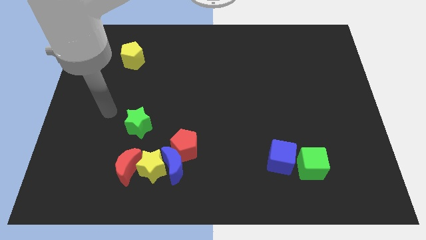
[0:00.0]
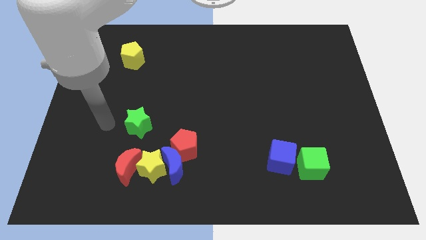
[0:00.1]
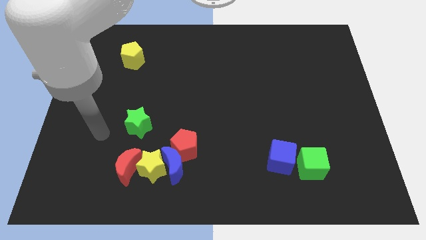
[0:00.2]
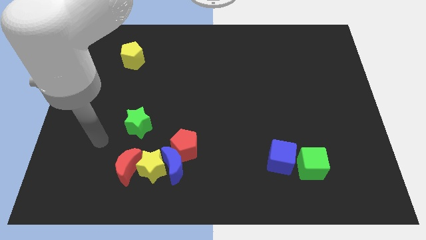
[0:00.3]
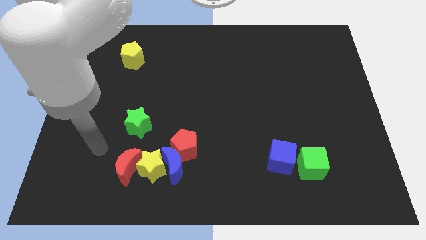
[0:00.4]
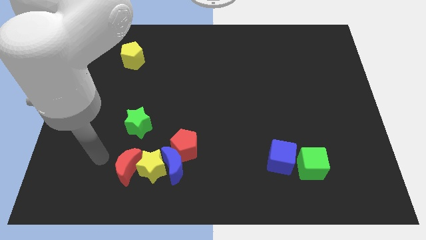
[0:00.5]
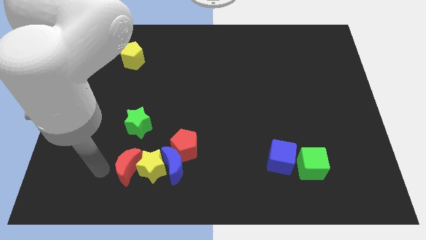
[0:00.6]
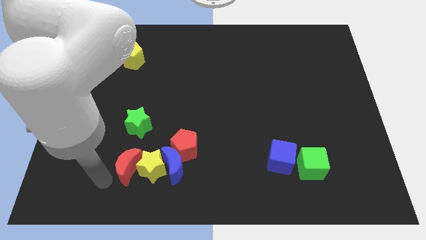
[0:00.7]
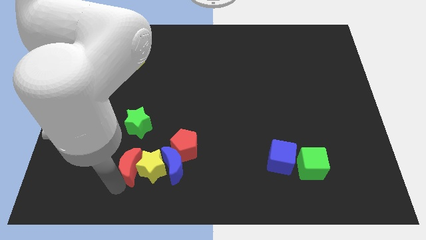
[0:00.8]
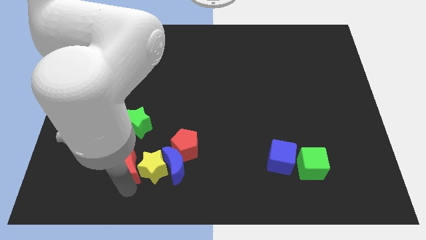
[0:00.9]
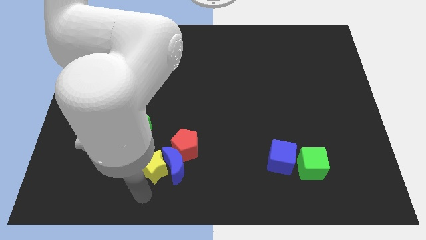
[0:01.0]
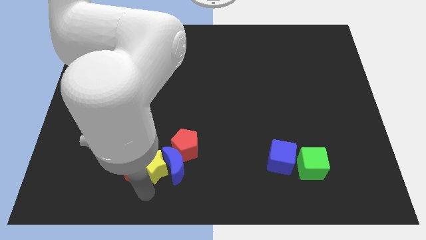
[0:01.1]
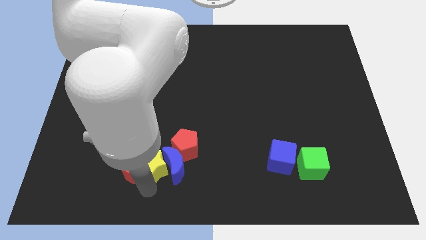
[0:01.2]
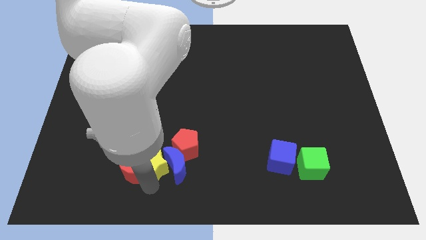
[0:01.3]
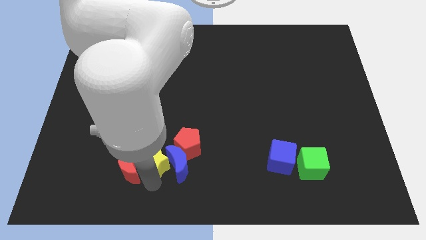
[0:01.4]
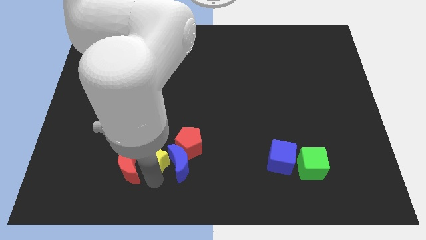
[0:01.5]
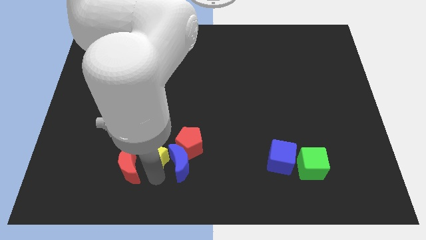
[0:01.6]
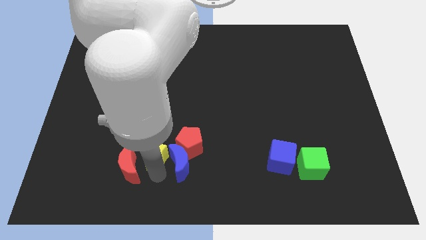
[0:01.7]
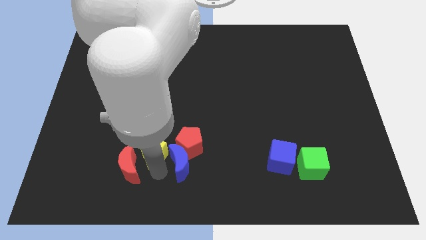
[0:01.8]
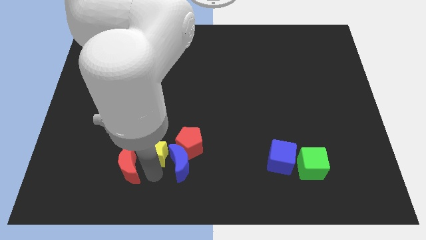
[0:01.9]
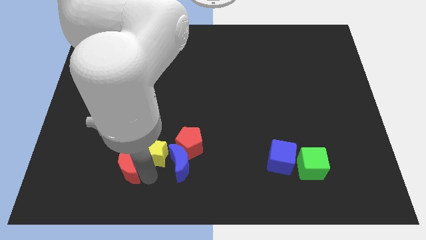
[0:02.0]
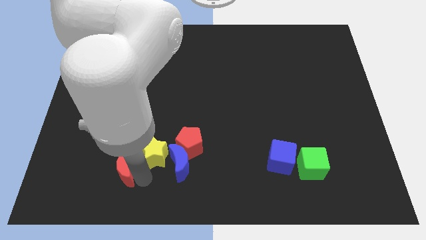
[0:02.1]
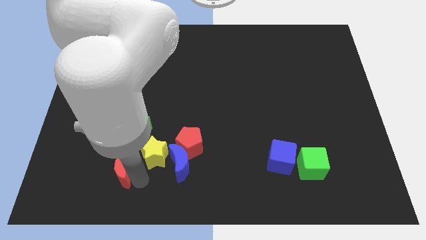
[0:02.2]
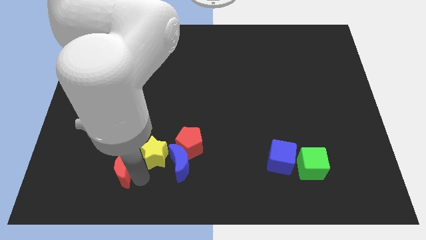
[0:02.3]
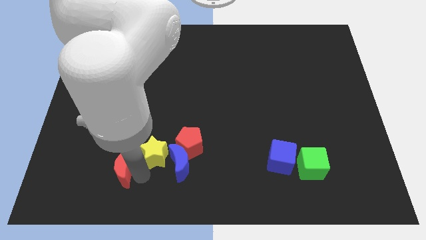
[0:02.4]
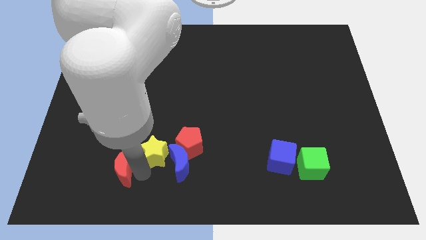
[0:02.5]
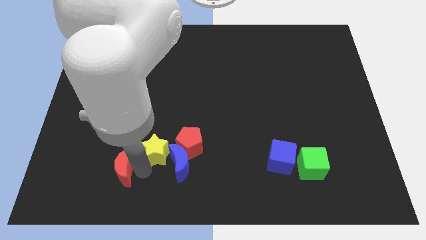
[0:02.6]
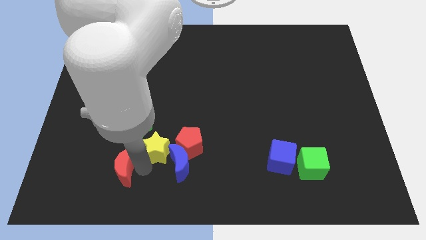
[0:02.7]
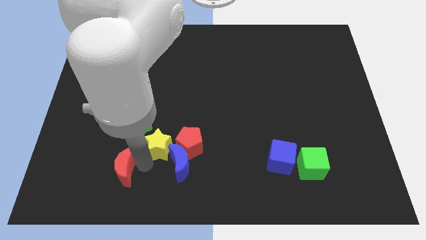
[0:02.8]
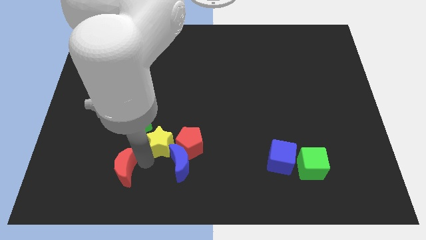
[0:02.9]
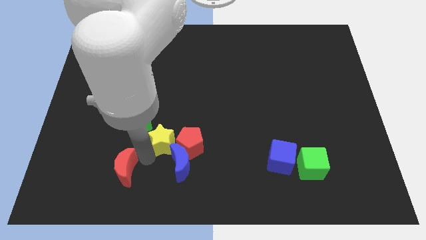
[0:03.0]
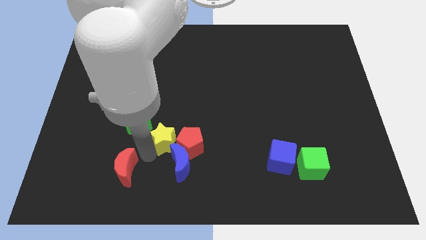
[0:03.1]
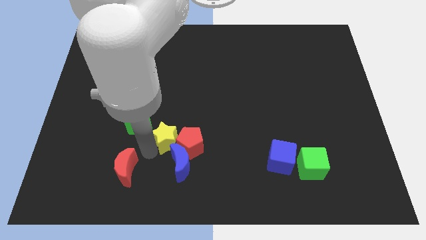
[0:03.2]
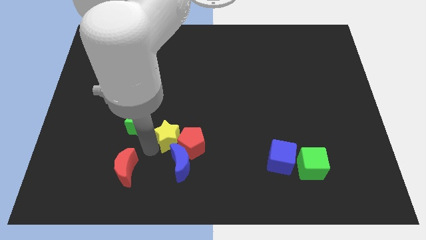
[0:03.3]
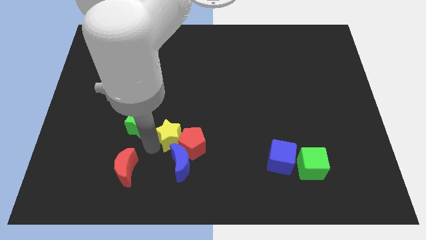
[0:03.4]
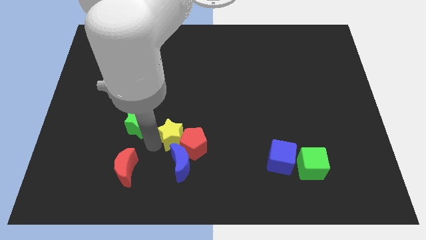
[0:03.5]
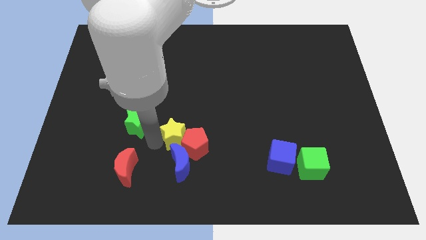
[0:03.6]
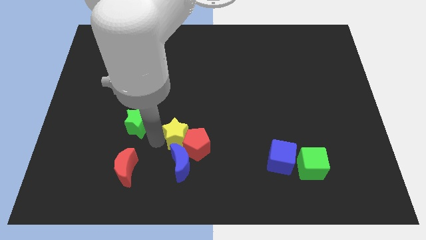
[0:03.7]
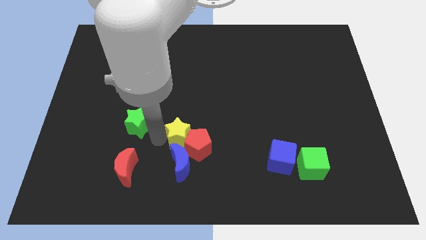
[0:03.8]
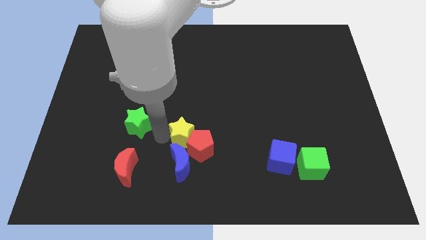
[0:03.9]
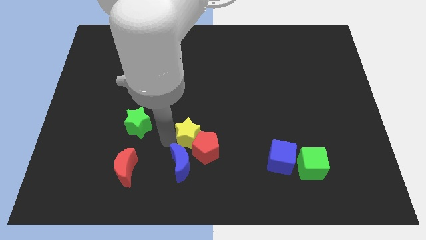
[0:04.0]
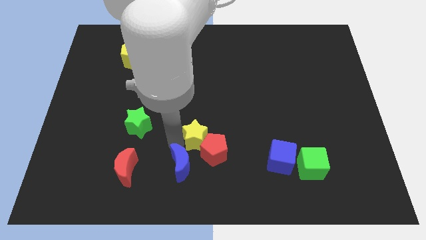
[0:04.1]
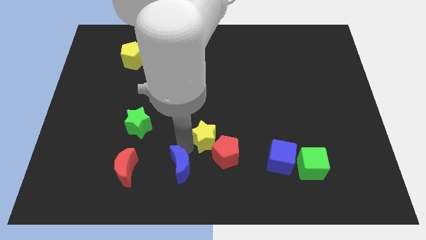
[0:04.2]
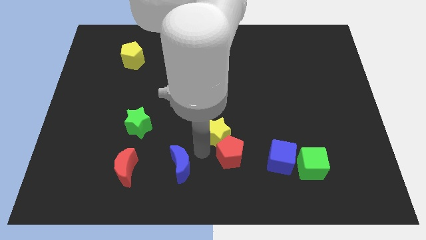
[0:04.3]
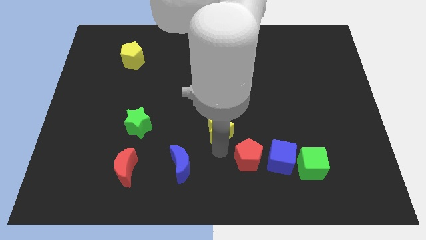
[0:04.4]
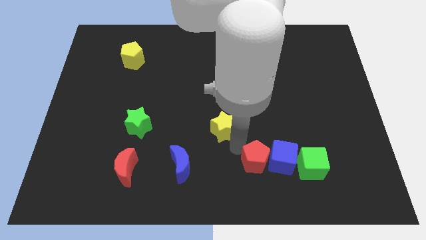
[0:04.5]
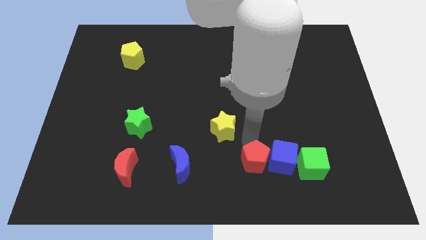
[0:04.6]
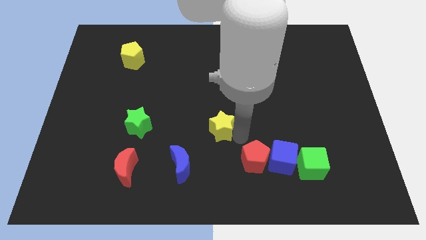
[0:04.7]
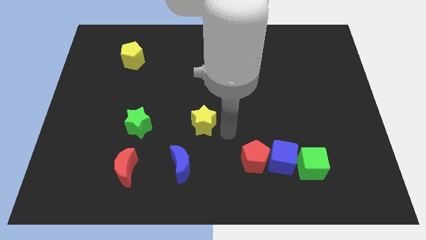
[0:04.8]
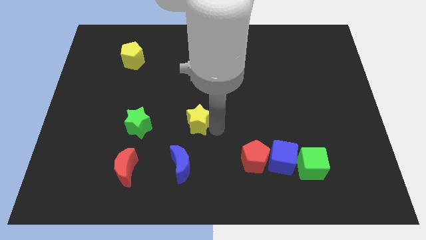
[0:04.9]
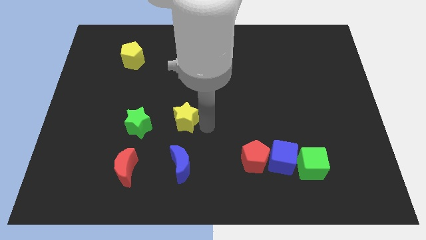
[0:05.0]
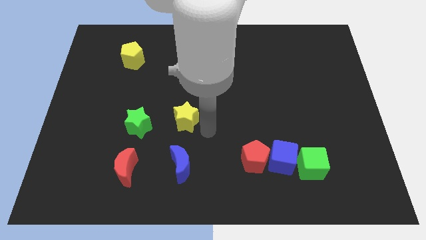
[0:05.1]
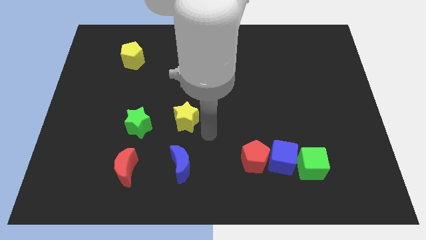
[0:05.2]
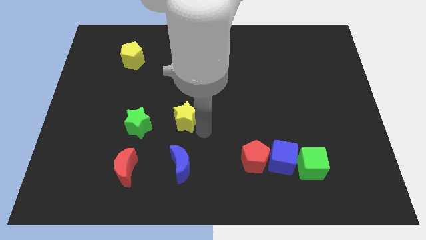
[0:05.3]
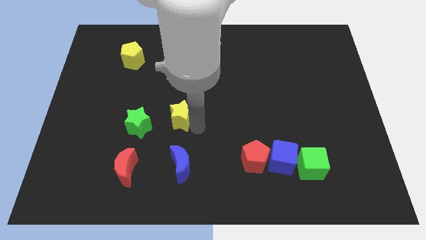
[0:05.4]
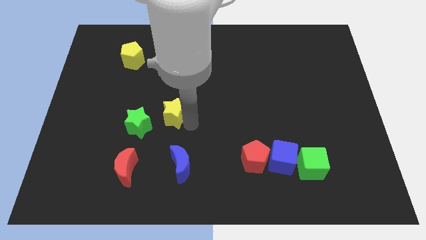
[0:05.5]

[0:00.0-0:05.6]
push the yellow star to the top right of the green star

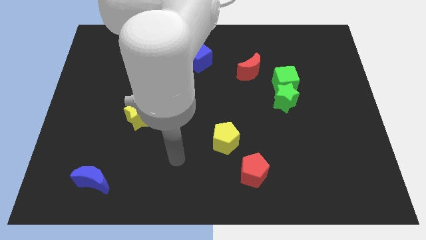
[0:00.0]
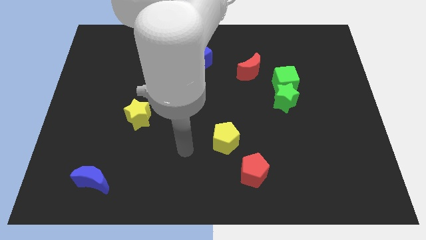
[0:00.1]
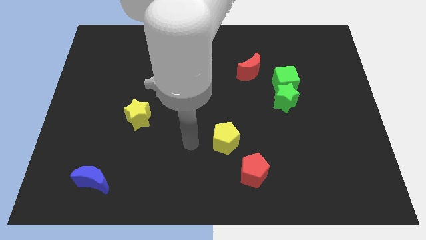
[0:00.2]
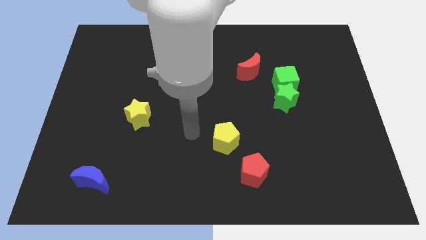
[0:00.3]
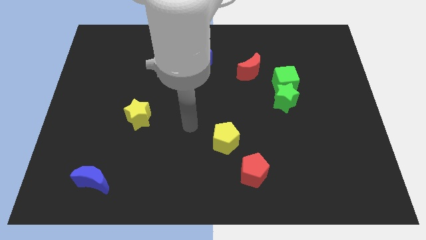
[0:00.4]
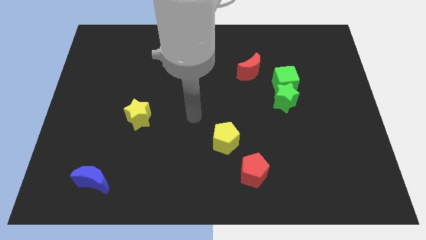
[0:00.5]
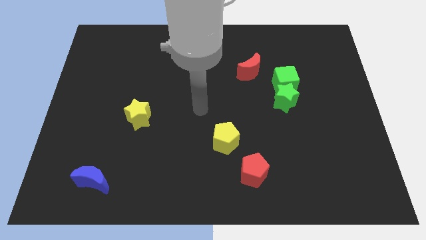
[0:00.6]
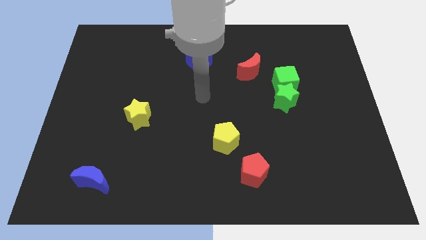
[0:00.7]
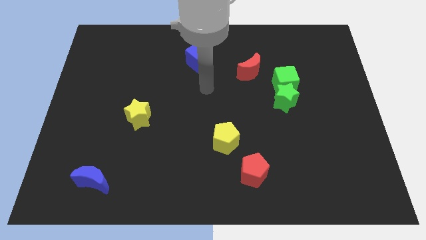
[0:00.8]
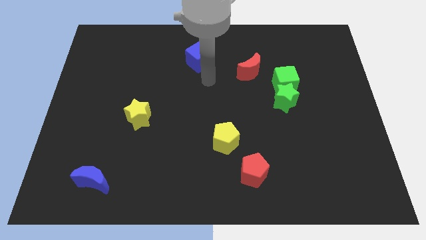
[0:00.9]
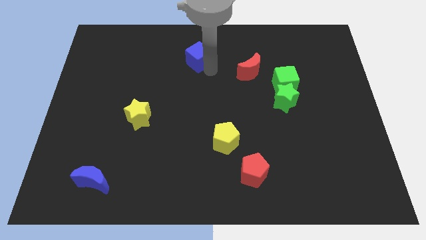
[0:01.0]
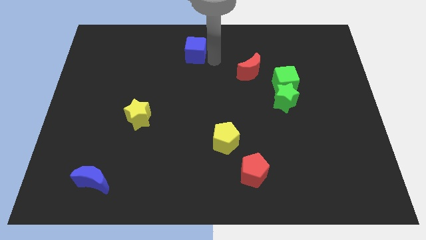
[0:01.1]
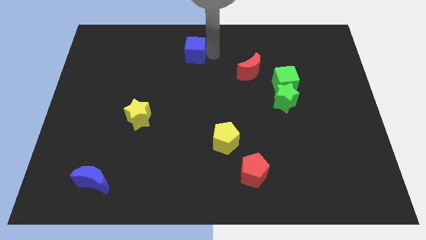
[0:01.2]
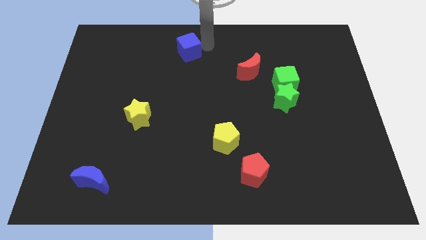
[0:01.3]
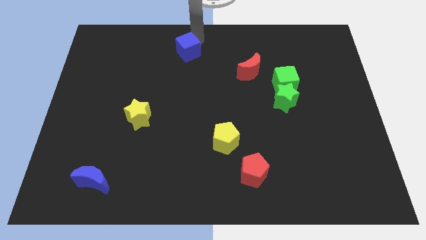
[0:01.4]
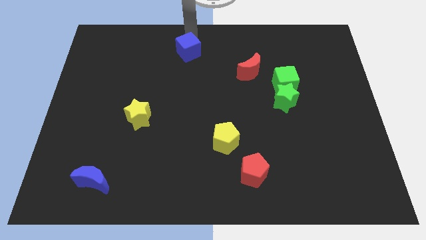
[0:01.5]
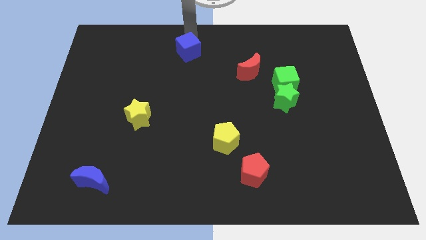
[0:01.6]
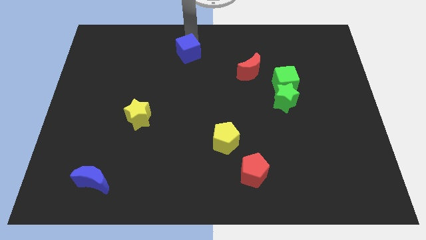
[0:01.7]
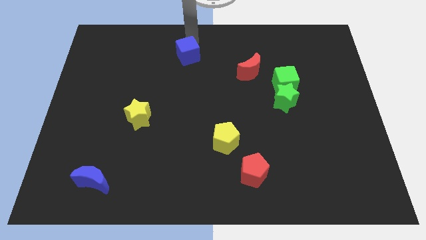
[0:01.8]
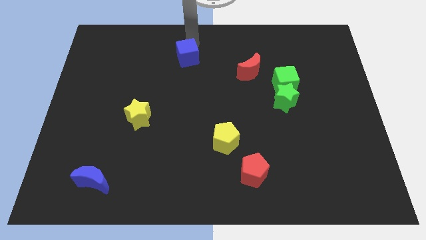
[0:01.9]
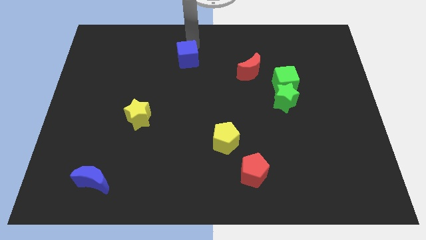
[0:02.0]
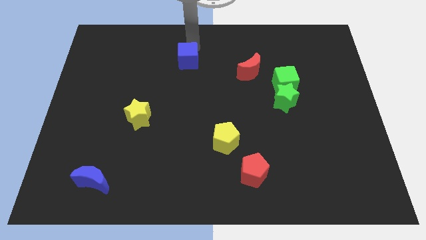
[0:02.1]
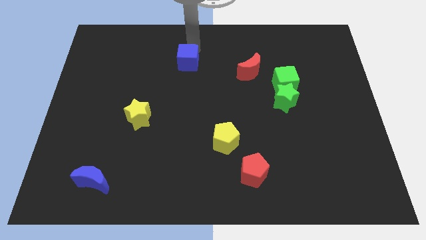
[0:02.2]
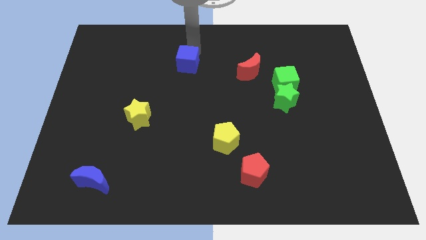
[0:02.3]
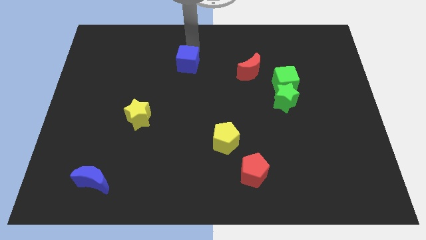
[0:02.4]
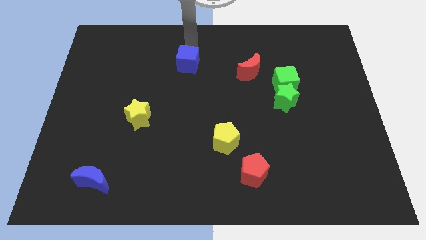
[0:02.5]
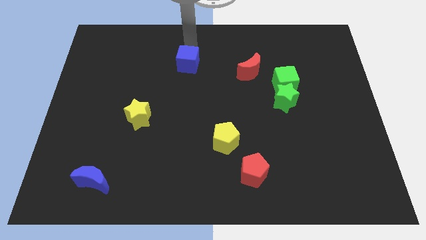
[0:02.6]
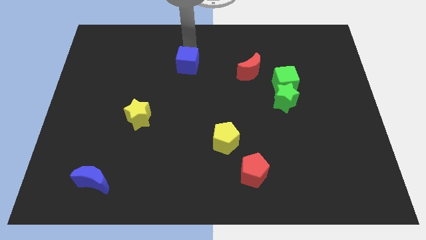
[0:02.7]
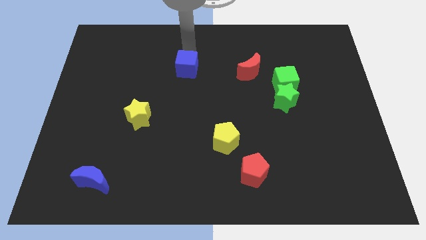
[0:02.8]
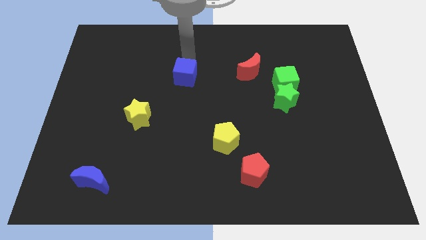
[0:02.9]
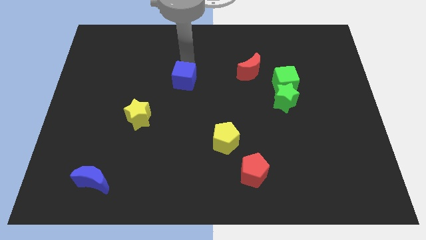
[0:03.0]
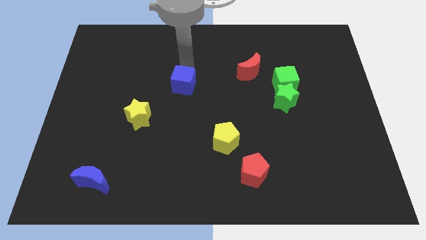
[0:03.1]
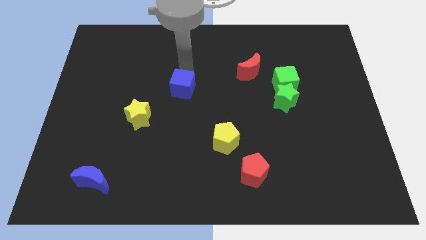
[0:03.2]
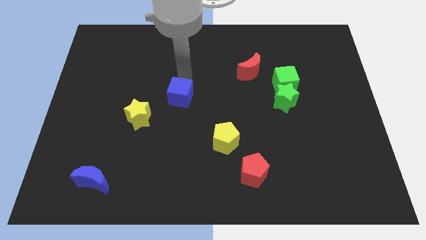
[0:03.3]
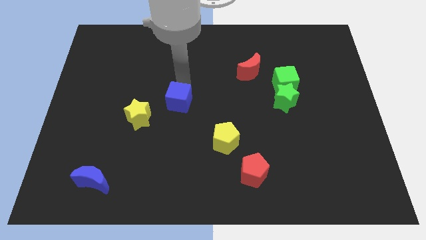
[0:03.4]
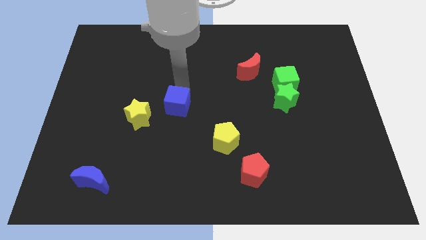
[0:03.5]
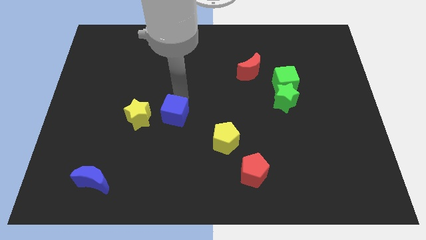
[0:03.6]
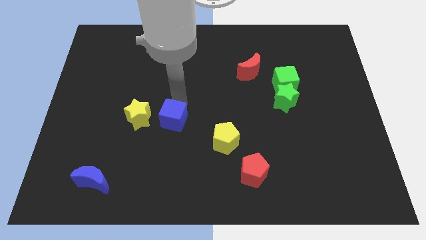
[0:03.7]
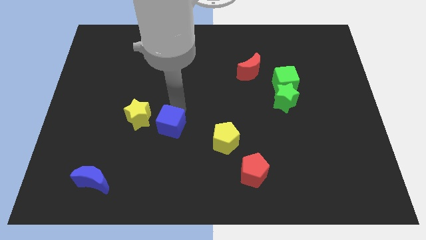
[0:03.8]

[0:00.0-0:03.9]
put the blue cube diagonally down and to the right of the yellow star
